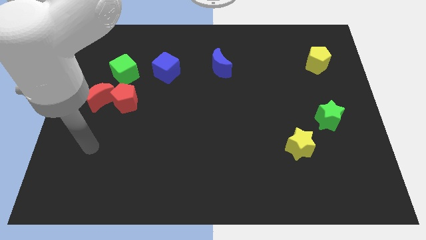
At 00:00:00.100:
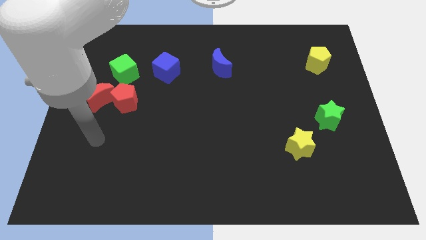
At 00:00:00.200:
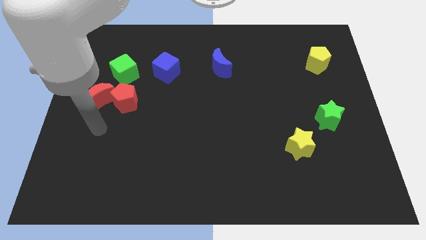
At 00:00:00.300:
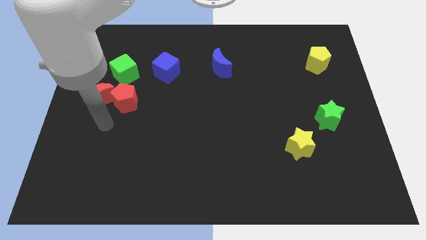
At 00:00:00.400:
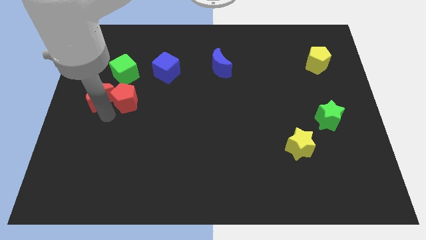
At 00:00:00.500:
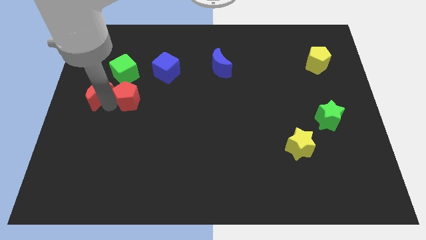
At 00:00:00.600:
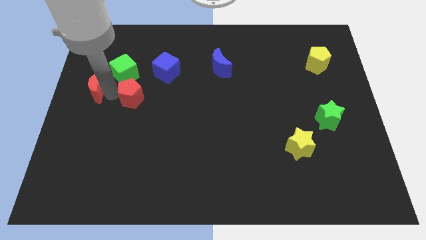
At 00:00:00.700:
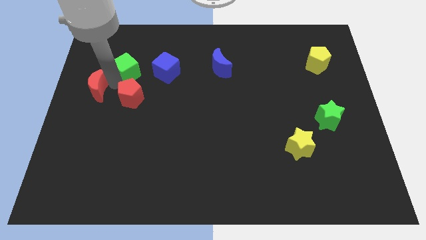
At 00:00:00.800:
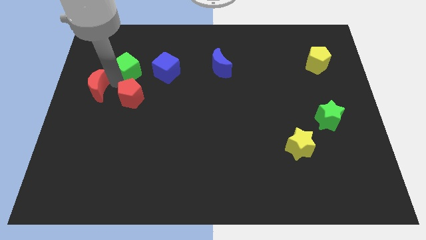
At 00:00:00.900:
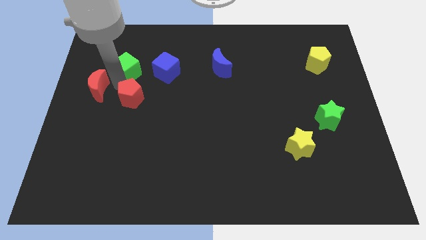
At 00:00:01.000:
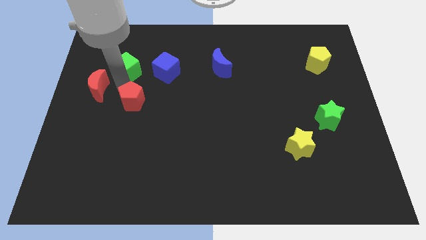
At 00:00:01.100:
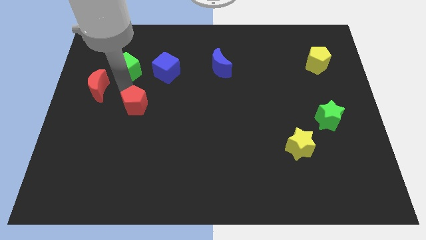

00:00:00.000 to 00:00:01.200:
pull the red pentagon apart from the red moon and green cube

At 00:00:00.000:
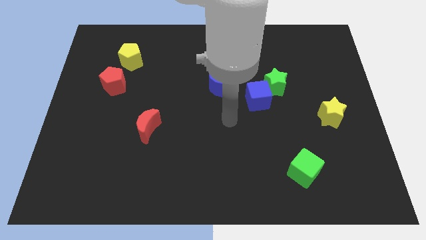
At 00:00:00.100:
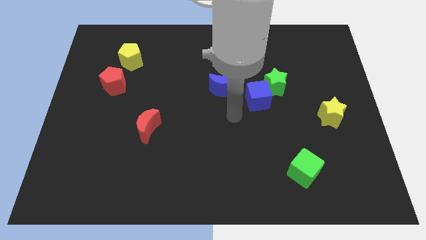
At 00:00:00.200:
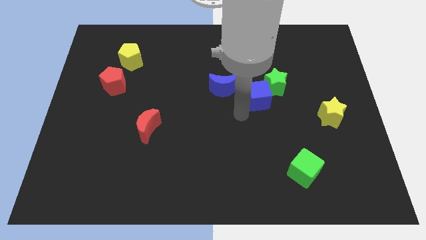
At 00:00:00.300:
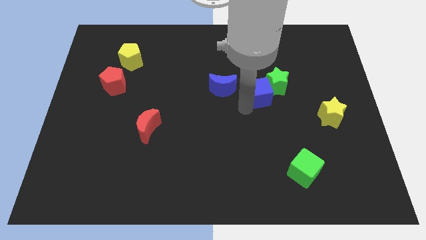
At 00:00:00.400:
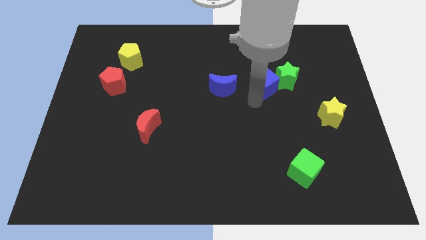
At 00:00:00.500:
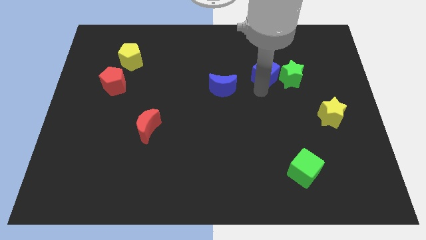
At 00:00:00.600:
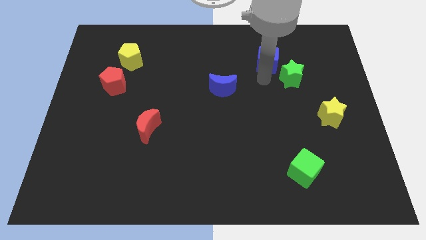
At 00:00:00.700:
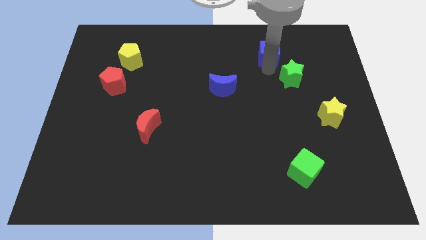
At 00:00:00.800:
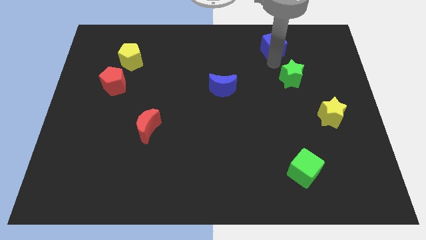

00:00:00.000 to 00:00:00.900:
separate the green star from the blue cube

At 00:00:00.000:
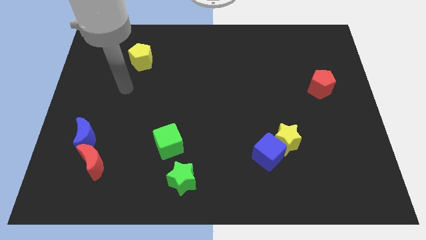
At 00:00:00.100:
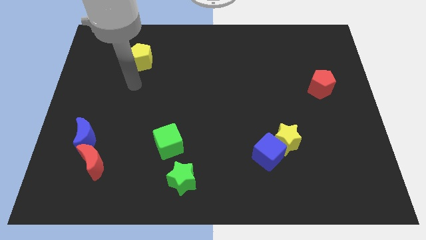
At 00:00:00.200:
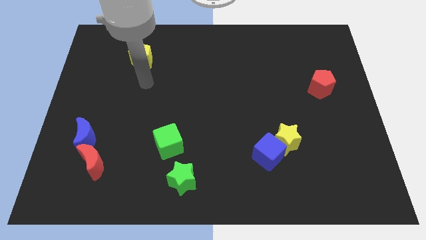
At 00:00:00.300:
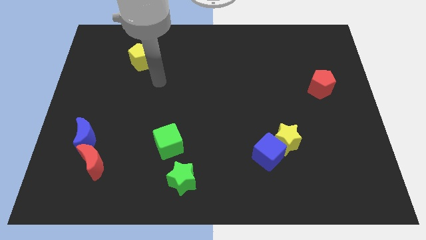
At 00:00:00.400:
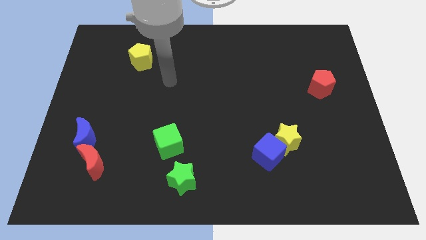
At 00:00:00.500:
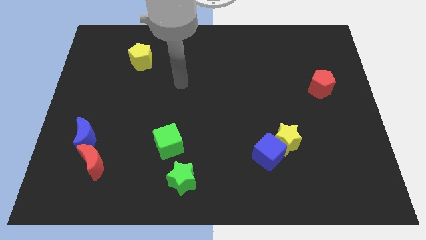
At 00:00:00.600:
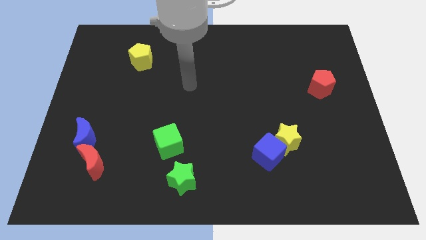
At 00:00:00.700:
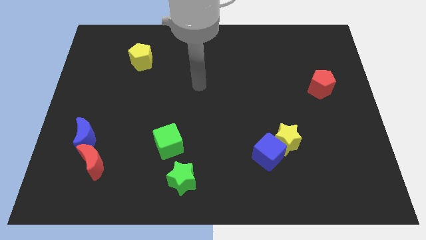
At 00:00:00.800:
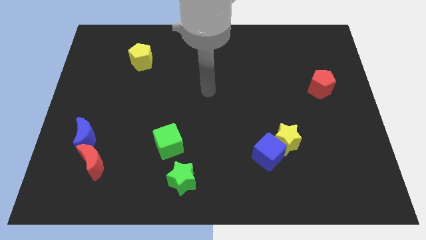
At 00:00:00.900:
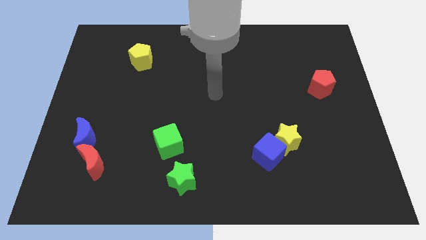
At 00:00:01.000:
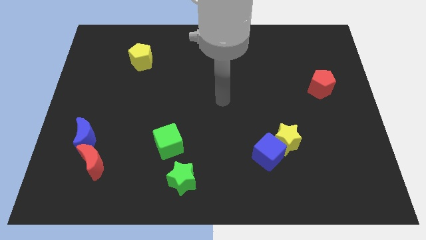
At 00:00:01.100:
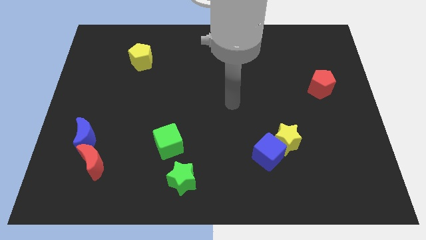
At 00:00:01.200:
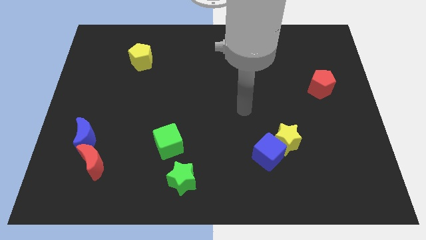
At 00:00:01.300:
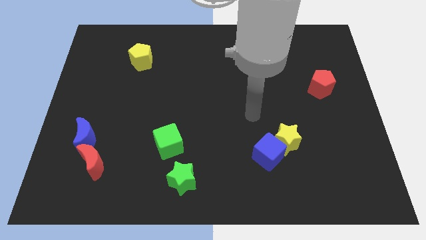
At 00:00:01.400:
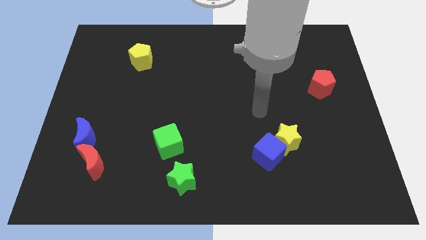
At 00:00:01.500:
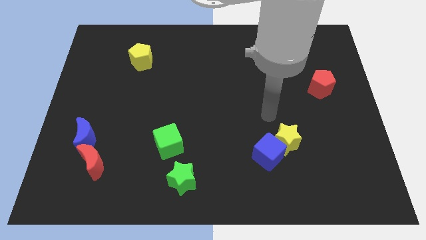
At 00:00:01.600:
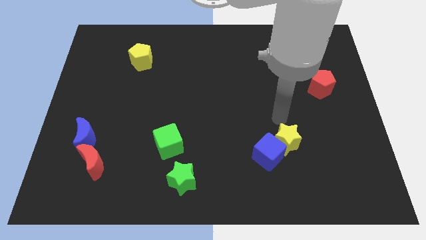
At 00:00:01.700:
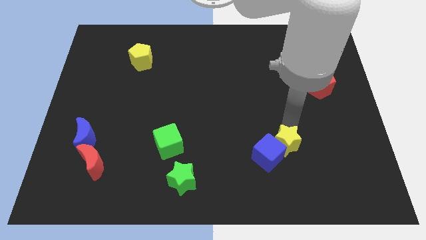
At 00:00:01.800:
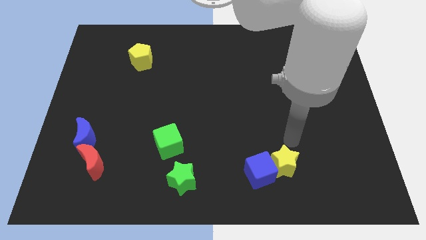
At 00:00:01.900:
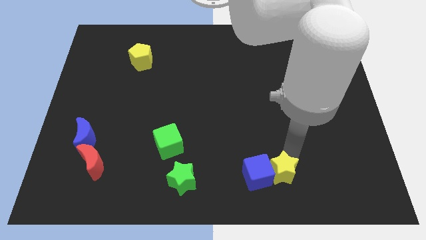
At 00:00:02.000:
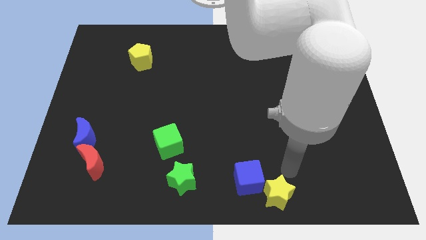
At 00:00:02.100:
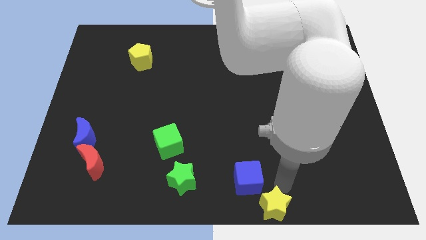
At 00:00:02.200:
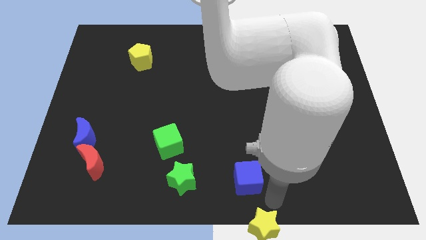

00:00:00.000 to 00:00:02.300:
pull the blue cube apart from the yellow star

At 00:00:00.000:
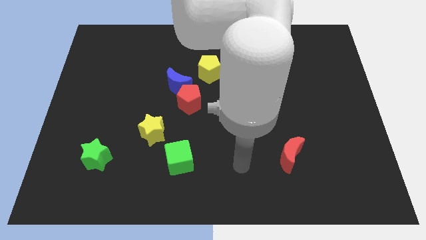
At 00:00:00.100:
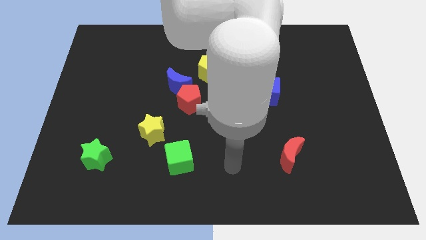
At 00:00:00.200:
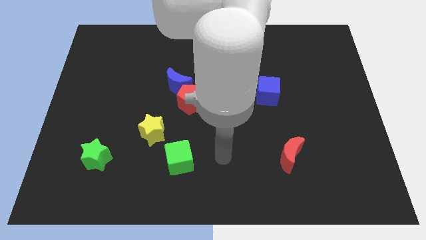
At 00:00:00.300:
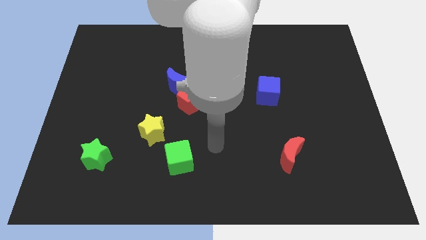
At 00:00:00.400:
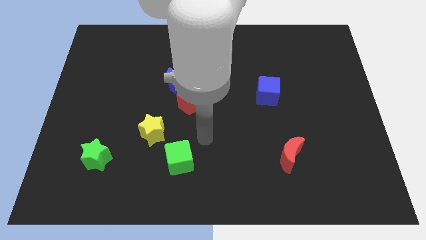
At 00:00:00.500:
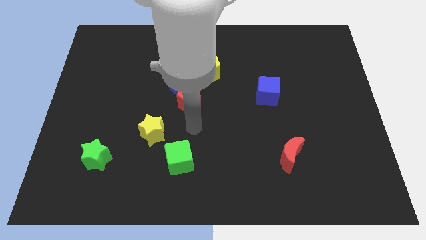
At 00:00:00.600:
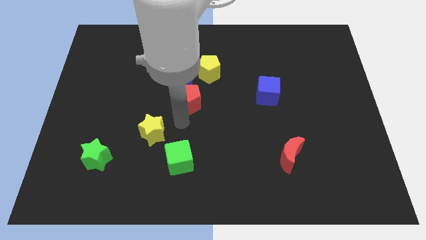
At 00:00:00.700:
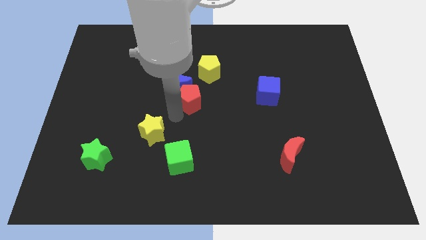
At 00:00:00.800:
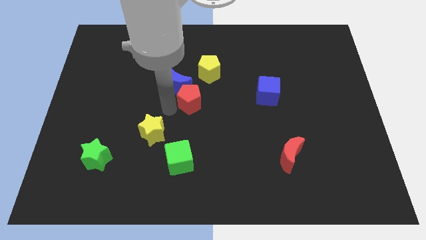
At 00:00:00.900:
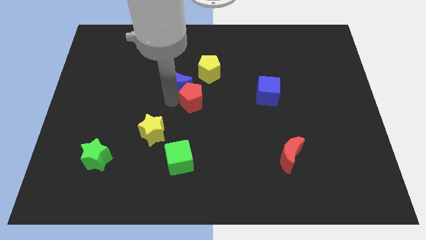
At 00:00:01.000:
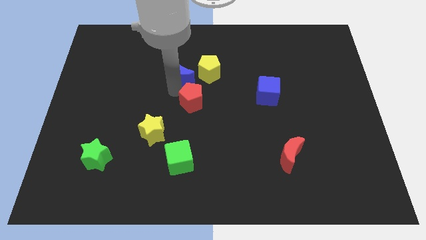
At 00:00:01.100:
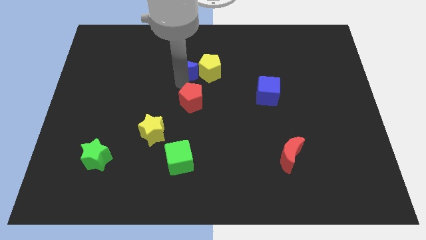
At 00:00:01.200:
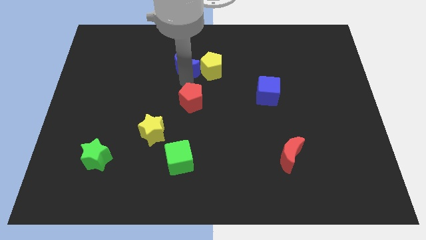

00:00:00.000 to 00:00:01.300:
pull the red pentagon apart from the blue moon

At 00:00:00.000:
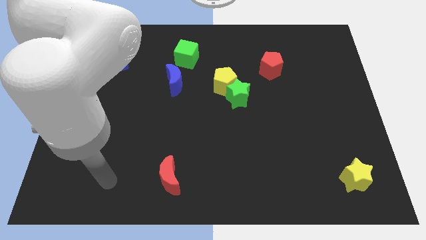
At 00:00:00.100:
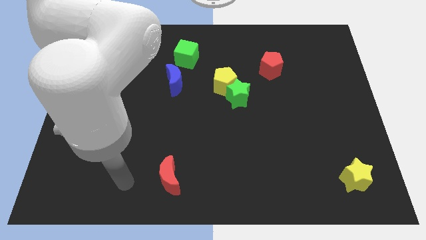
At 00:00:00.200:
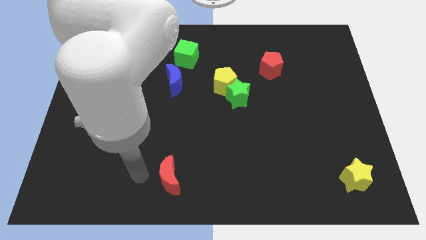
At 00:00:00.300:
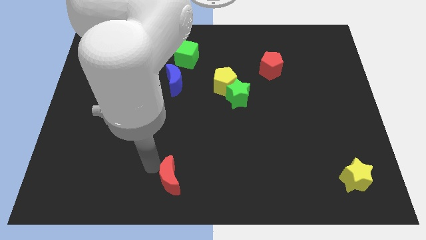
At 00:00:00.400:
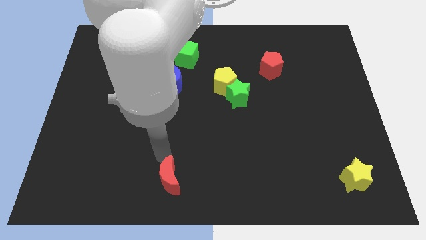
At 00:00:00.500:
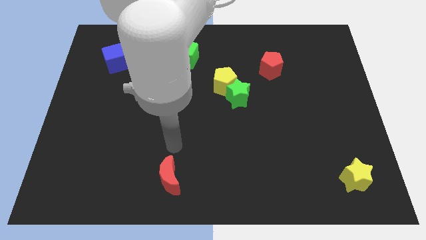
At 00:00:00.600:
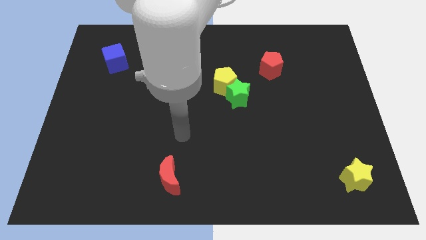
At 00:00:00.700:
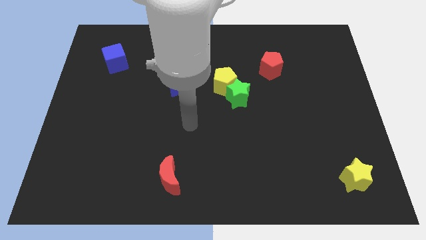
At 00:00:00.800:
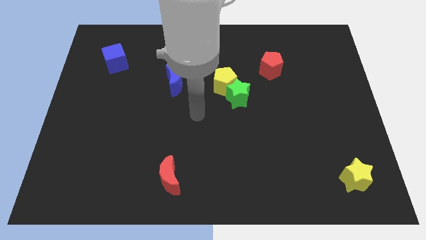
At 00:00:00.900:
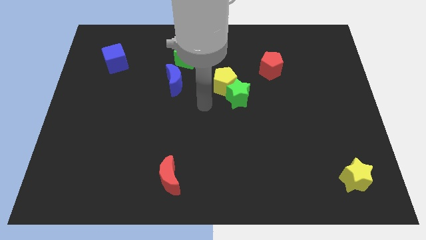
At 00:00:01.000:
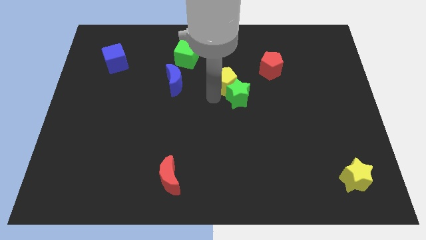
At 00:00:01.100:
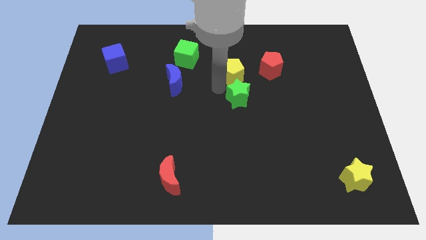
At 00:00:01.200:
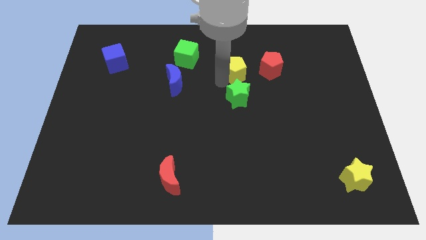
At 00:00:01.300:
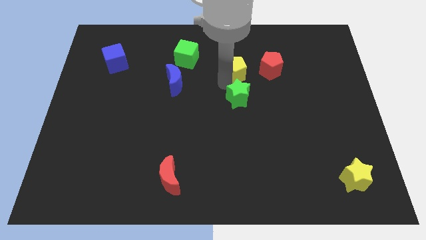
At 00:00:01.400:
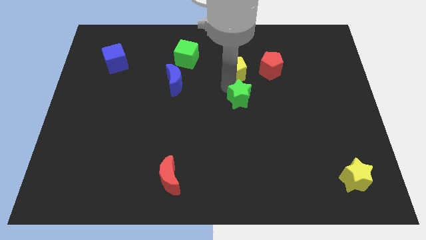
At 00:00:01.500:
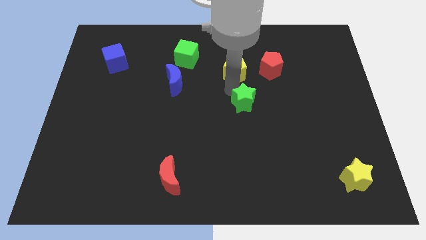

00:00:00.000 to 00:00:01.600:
move the green star away from the yellow pentagon

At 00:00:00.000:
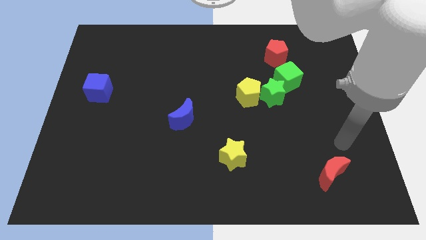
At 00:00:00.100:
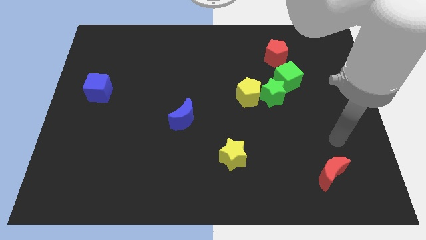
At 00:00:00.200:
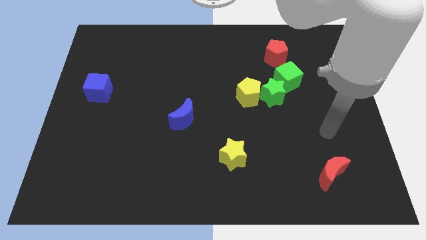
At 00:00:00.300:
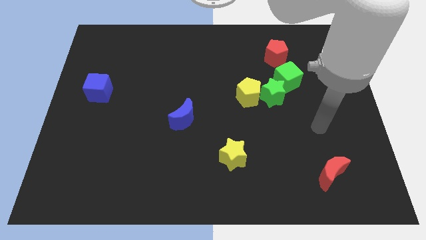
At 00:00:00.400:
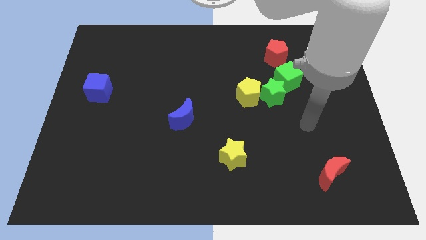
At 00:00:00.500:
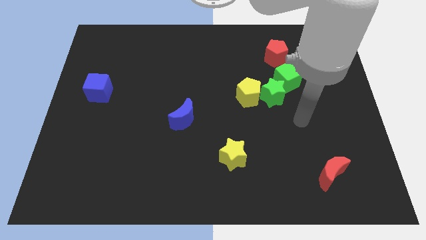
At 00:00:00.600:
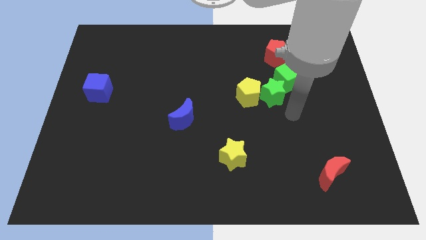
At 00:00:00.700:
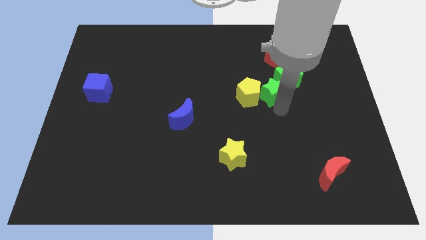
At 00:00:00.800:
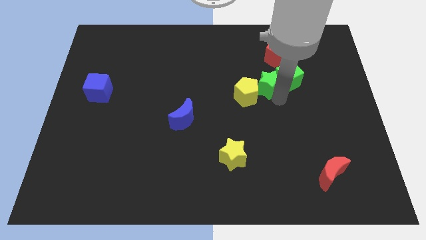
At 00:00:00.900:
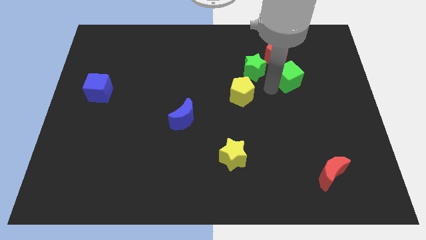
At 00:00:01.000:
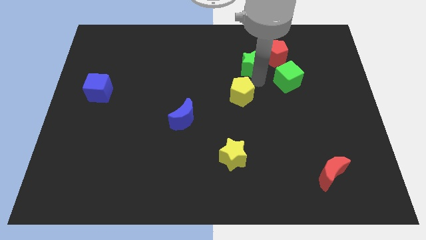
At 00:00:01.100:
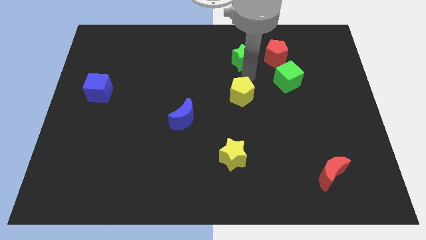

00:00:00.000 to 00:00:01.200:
separate the yellow pentagon from the green star

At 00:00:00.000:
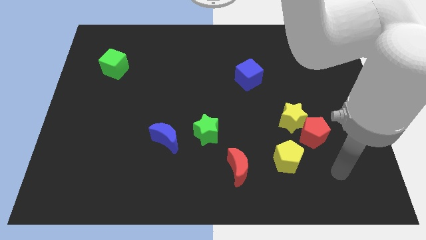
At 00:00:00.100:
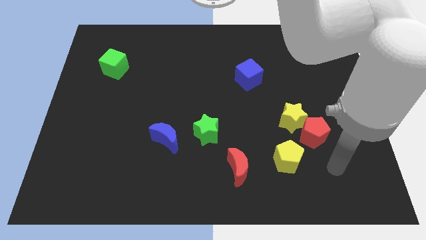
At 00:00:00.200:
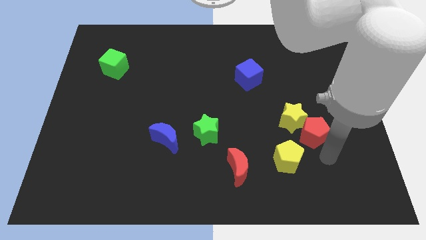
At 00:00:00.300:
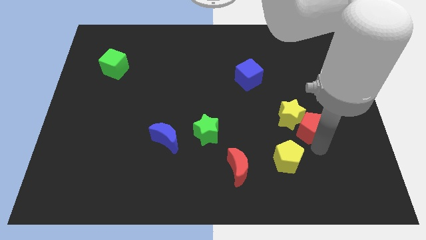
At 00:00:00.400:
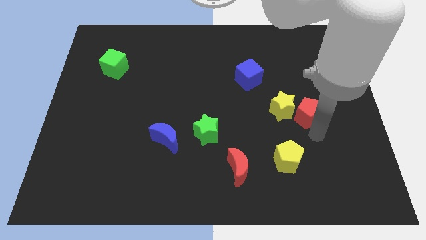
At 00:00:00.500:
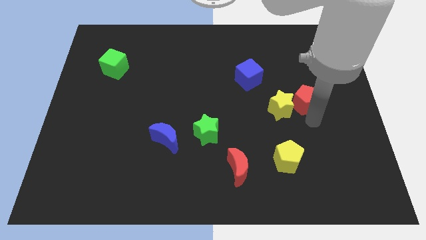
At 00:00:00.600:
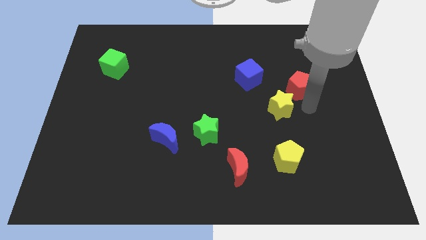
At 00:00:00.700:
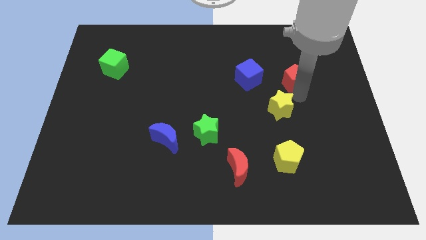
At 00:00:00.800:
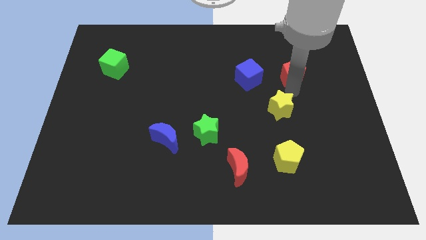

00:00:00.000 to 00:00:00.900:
separate the yellow star from the red pentagon
